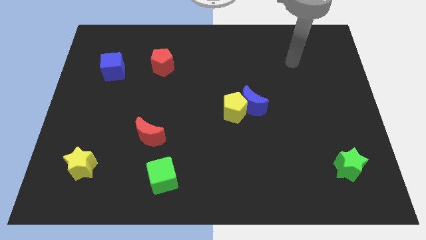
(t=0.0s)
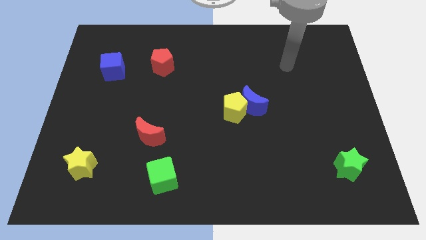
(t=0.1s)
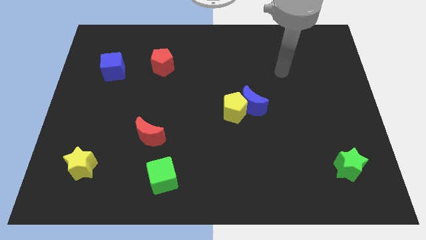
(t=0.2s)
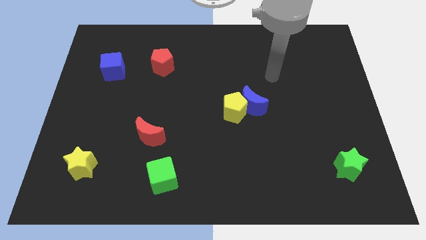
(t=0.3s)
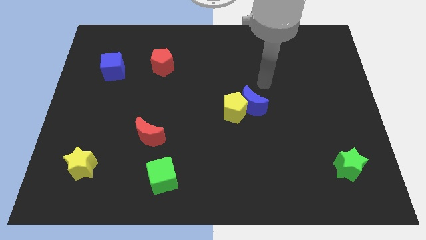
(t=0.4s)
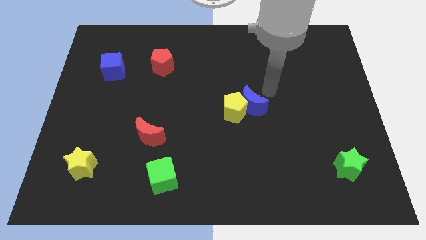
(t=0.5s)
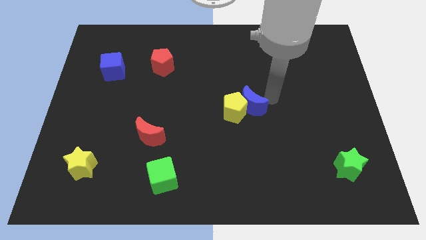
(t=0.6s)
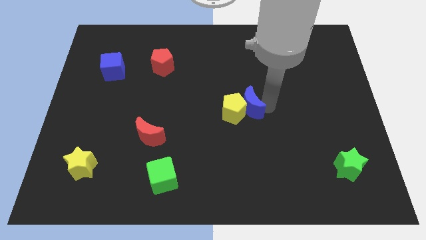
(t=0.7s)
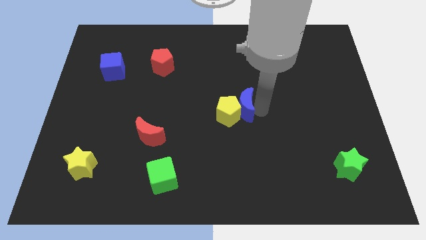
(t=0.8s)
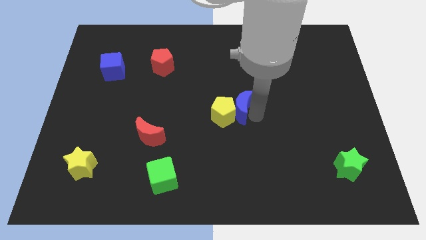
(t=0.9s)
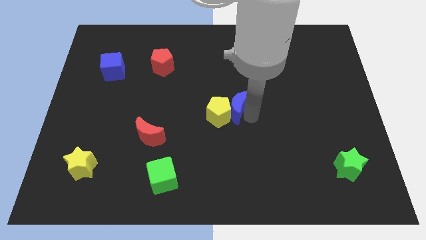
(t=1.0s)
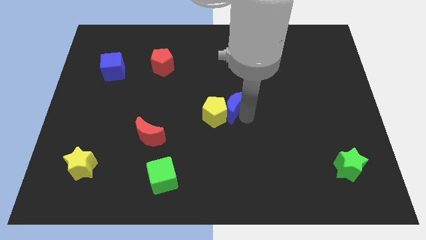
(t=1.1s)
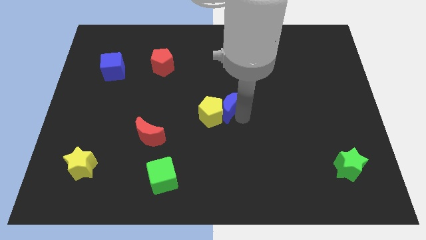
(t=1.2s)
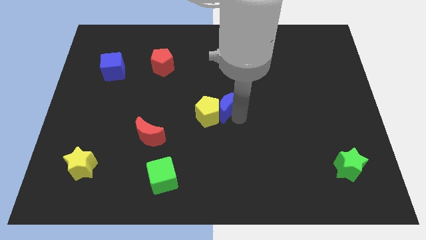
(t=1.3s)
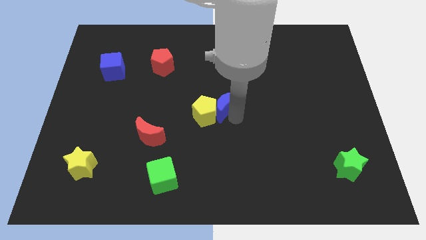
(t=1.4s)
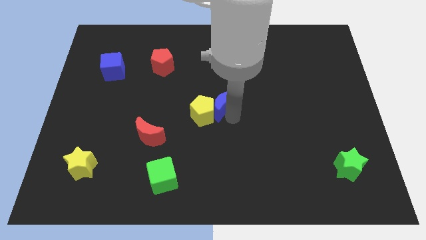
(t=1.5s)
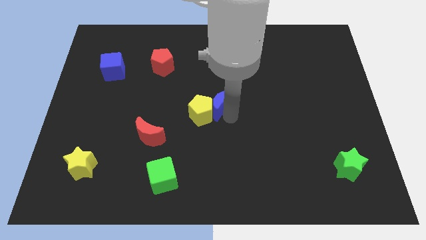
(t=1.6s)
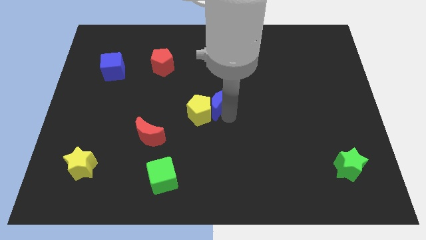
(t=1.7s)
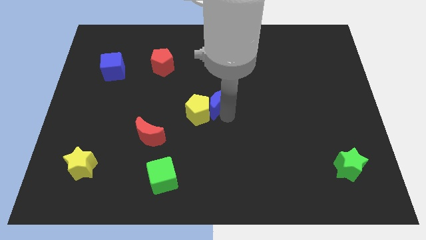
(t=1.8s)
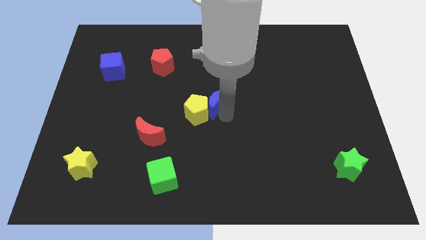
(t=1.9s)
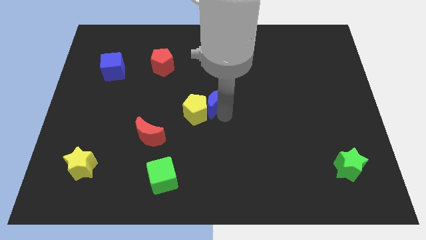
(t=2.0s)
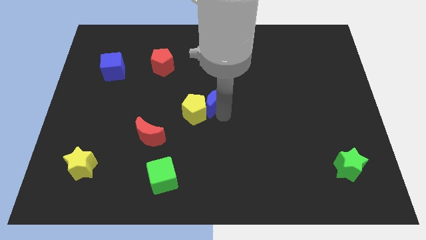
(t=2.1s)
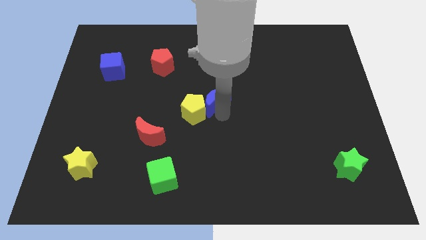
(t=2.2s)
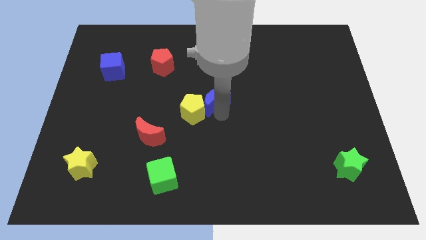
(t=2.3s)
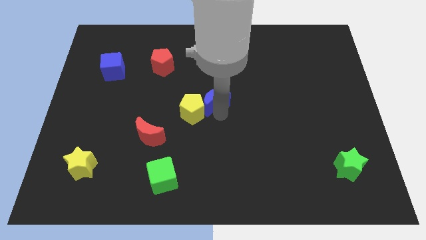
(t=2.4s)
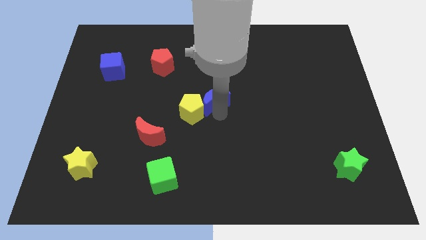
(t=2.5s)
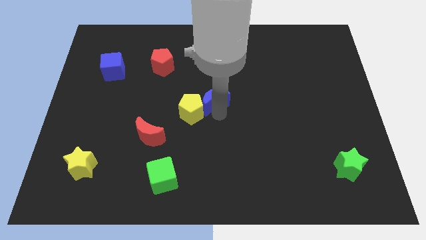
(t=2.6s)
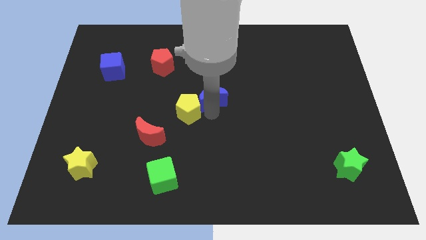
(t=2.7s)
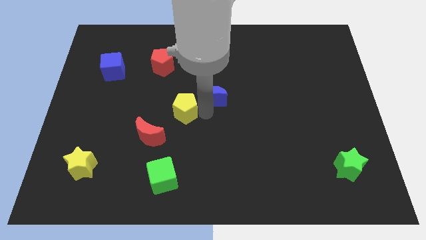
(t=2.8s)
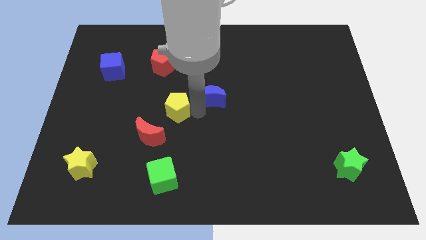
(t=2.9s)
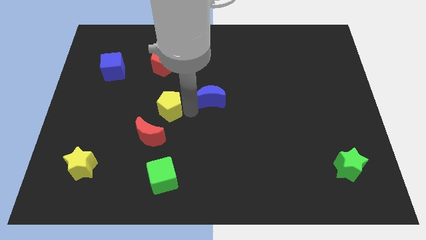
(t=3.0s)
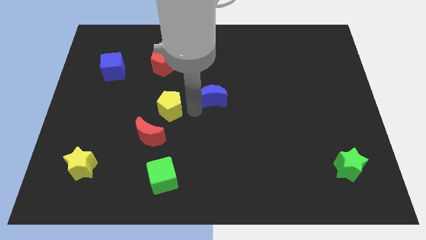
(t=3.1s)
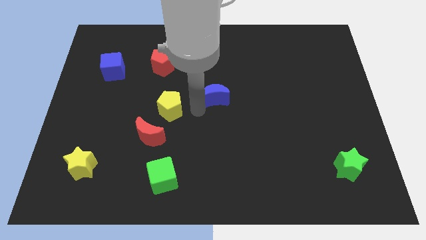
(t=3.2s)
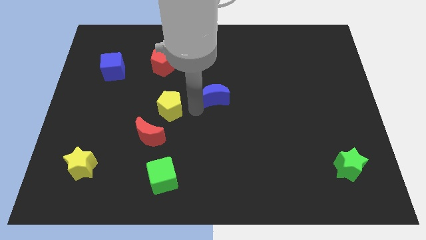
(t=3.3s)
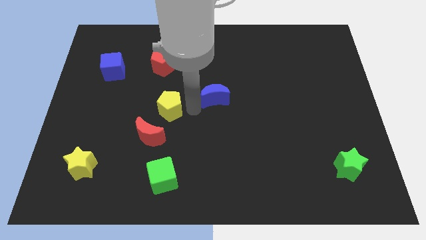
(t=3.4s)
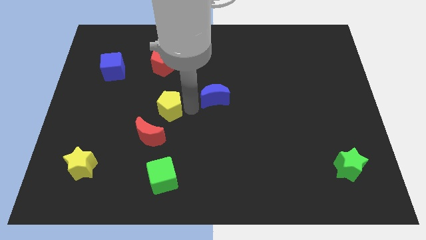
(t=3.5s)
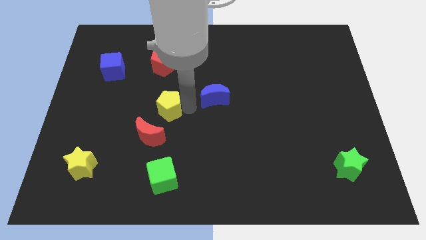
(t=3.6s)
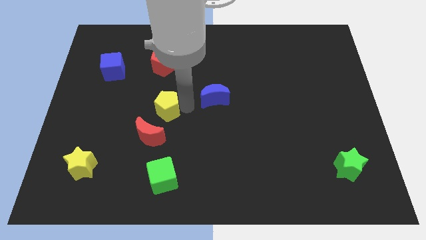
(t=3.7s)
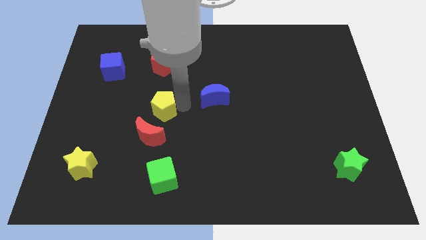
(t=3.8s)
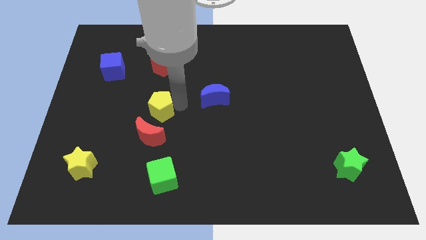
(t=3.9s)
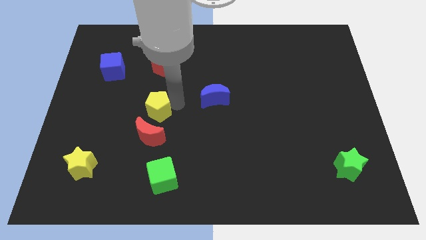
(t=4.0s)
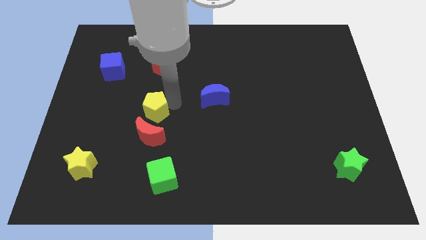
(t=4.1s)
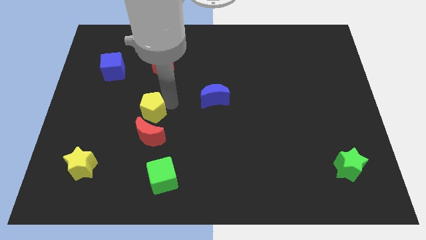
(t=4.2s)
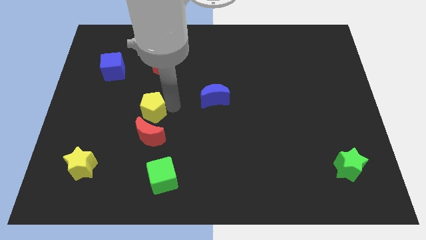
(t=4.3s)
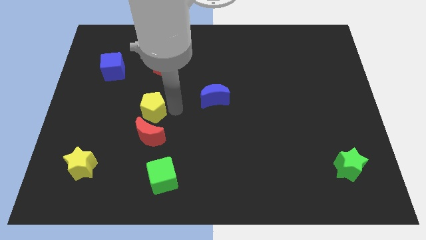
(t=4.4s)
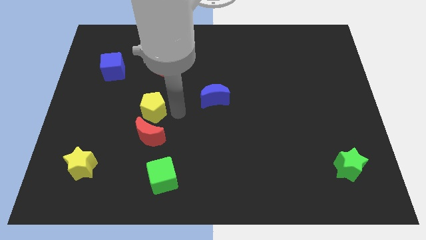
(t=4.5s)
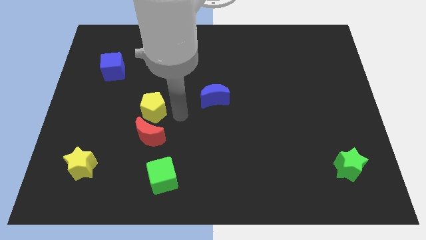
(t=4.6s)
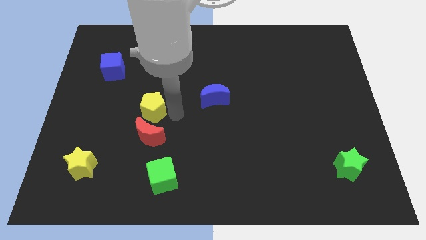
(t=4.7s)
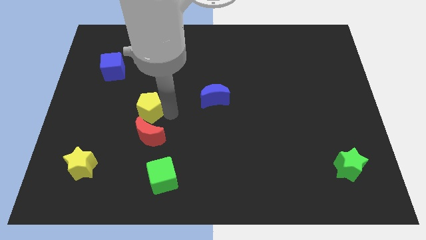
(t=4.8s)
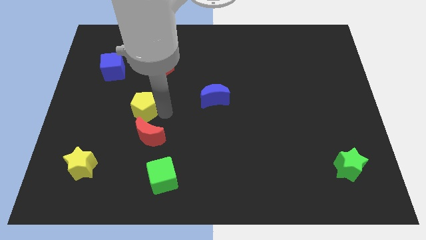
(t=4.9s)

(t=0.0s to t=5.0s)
push the yellow pentagon left

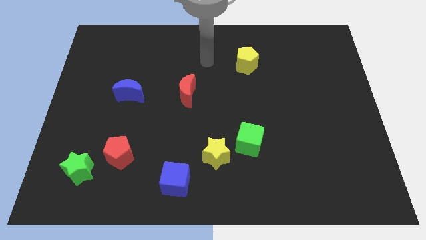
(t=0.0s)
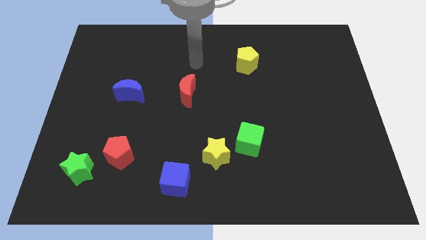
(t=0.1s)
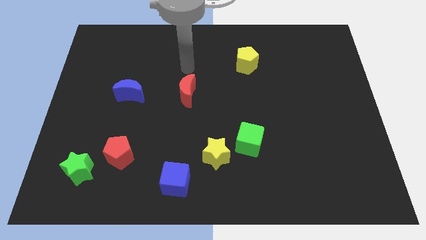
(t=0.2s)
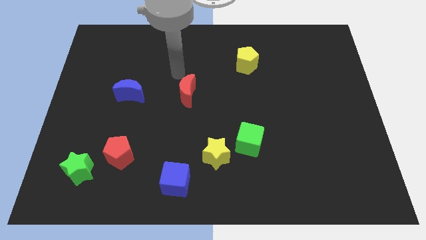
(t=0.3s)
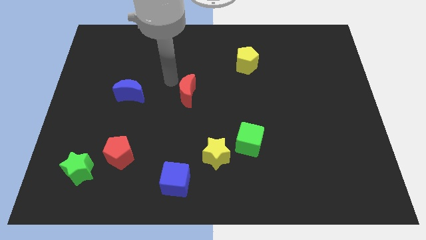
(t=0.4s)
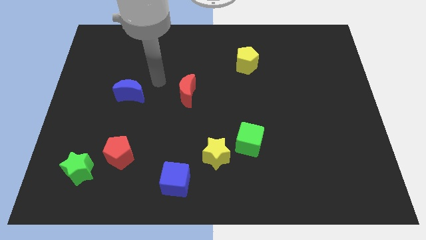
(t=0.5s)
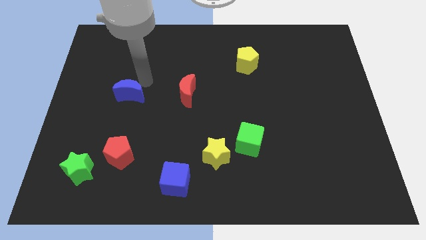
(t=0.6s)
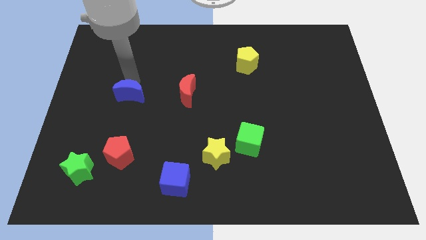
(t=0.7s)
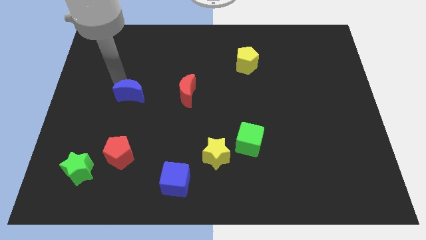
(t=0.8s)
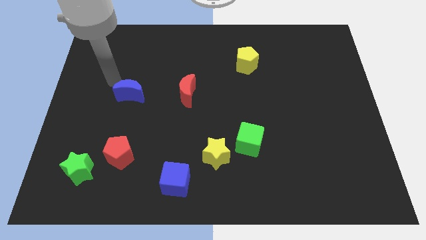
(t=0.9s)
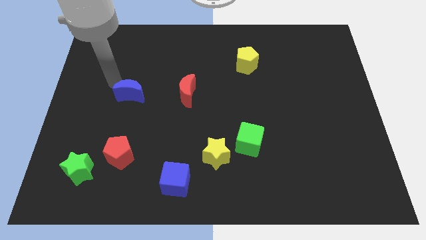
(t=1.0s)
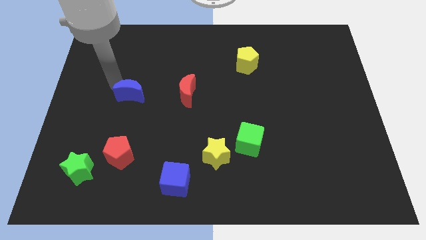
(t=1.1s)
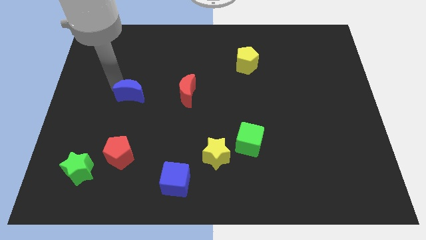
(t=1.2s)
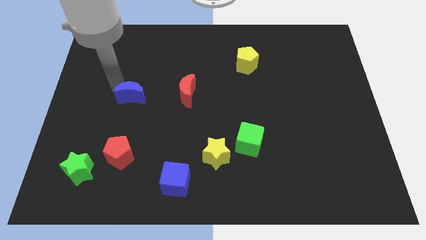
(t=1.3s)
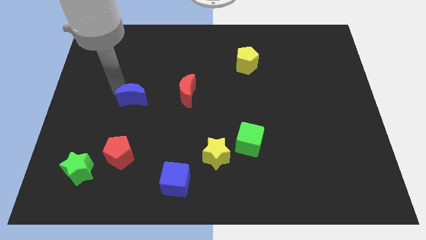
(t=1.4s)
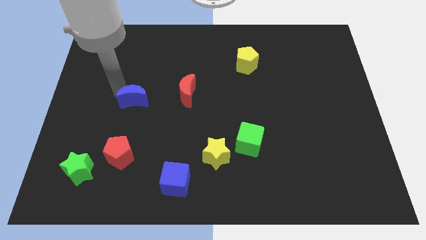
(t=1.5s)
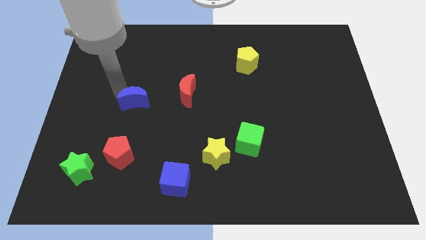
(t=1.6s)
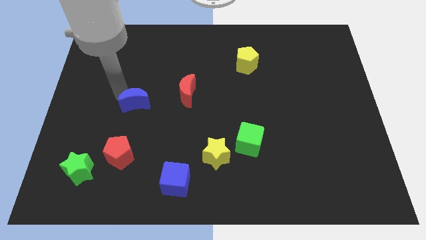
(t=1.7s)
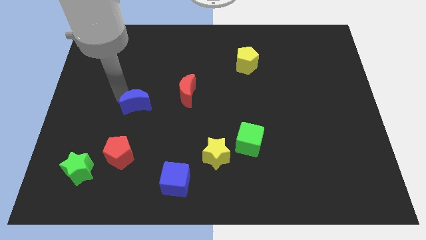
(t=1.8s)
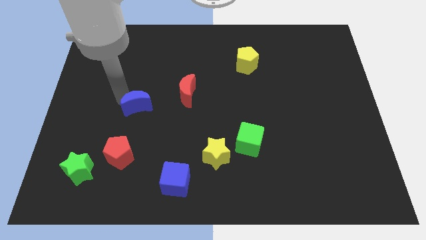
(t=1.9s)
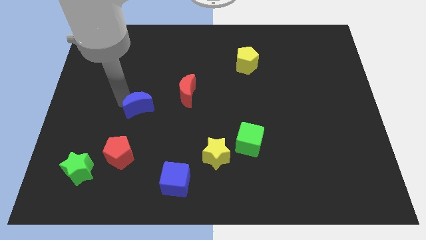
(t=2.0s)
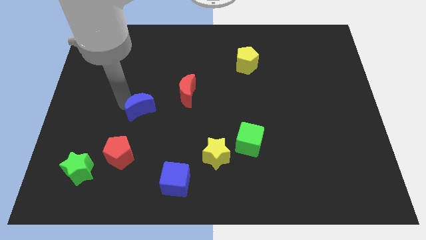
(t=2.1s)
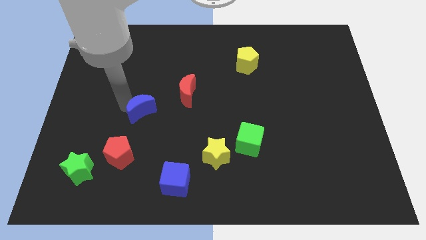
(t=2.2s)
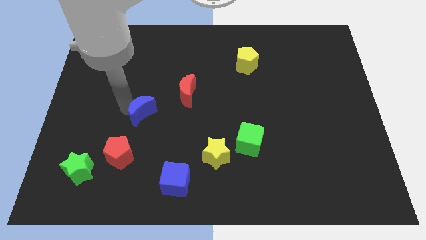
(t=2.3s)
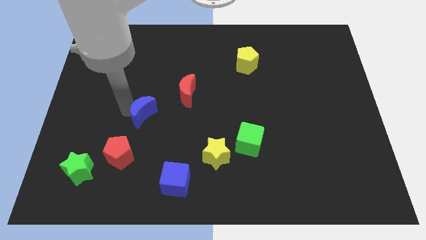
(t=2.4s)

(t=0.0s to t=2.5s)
slightly push the blue moon downwards and to the right diagonally

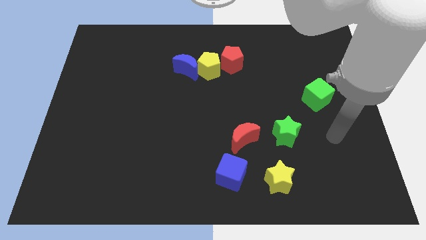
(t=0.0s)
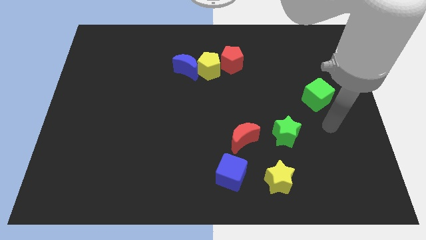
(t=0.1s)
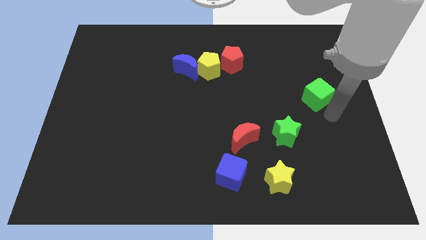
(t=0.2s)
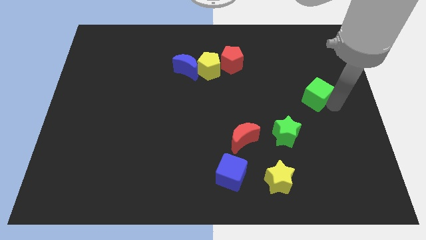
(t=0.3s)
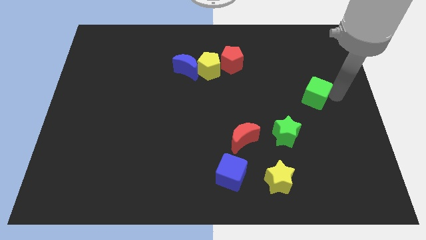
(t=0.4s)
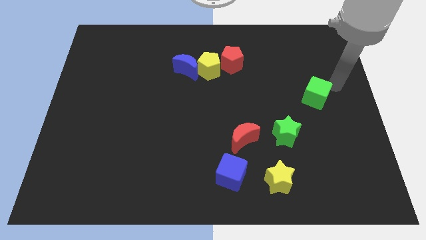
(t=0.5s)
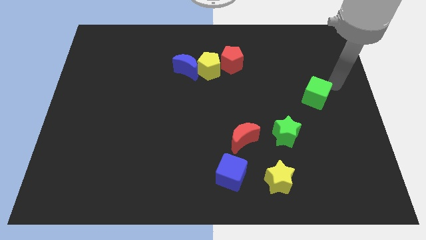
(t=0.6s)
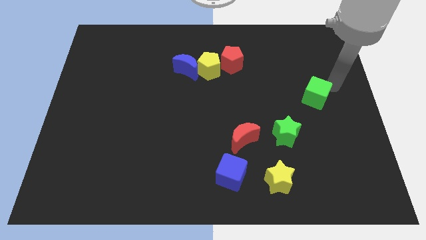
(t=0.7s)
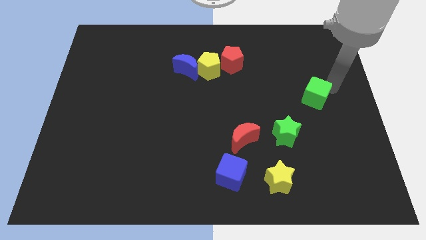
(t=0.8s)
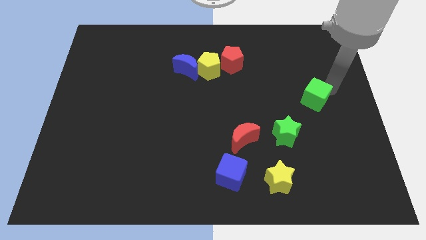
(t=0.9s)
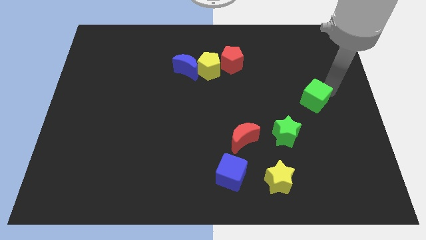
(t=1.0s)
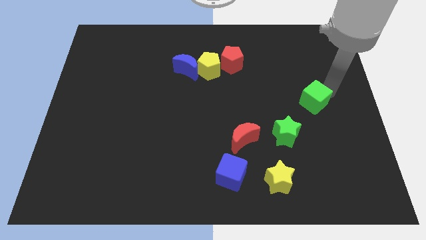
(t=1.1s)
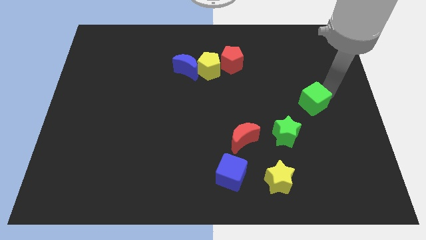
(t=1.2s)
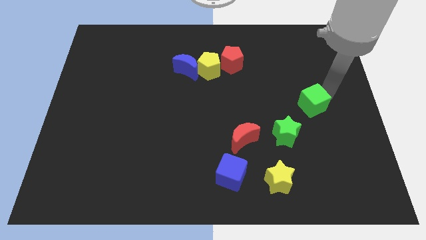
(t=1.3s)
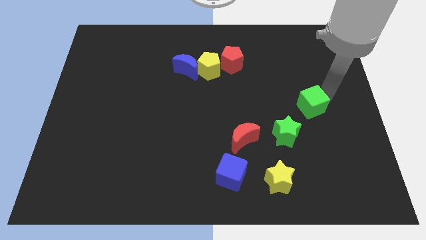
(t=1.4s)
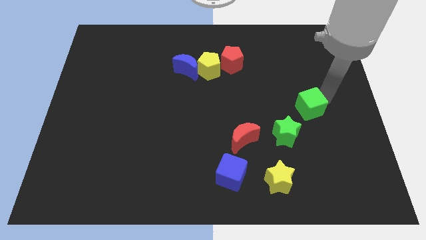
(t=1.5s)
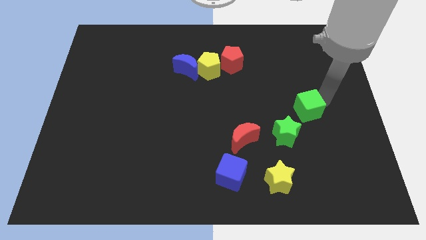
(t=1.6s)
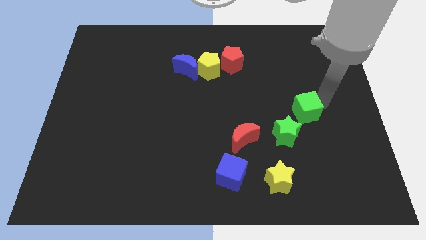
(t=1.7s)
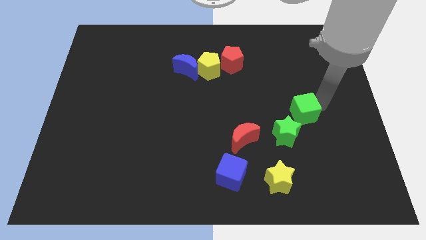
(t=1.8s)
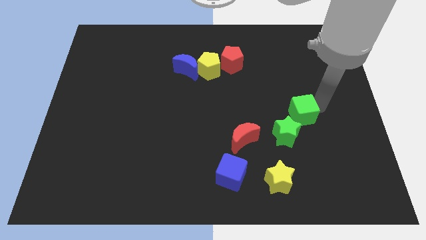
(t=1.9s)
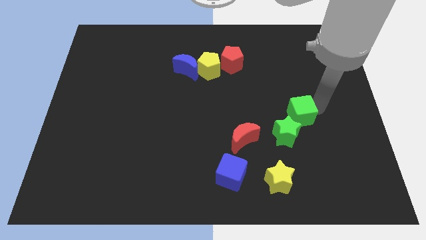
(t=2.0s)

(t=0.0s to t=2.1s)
push the green cube a little bit diagonally downwards and to the left
